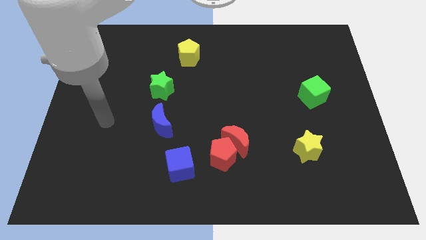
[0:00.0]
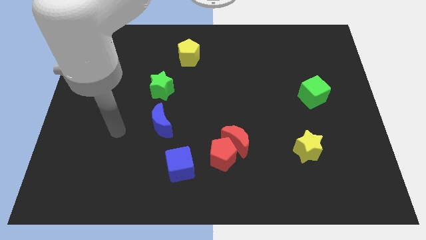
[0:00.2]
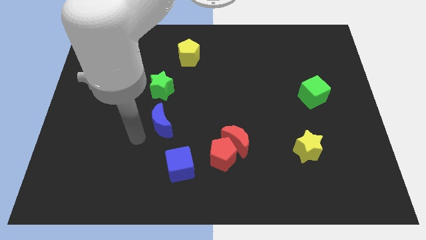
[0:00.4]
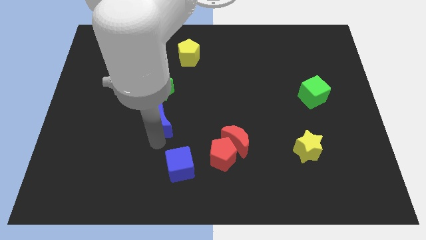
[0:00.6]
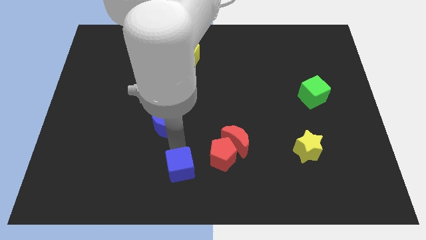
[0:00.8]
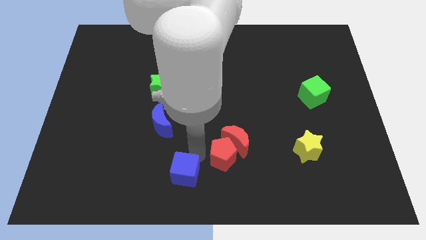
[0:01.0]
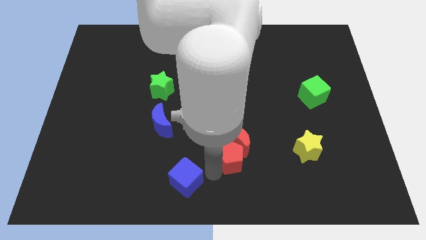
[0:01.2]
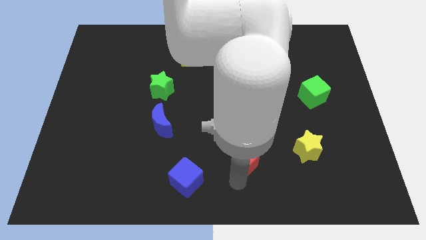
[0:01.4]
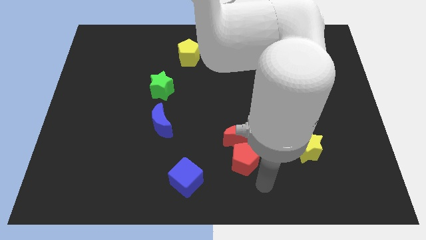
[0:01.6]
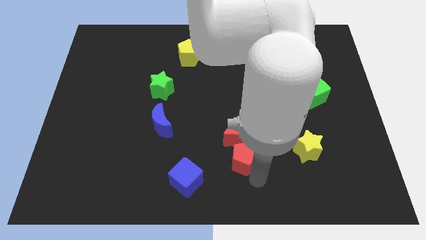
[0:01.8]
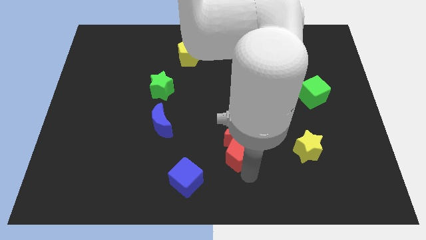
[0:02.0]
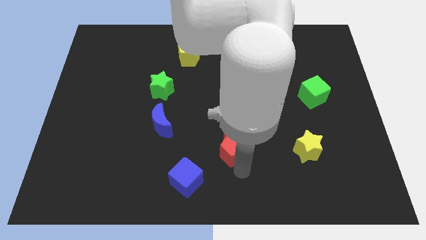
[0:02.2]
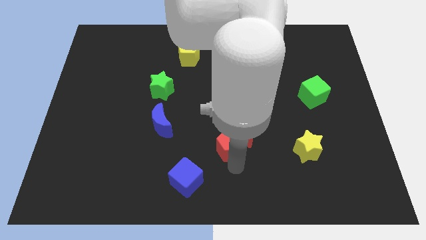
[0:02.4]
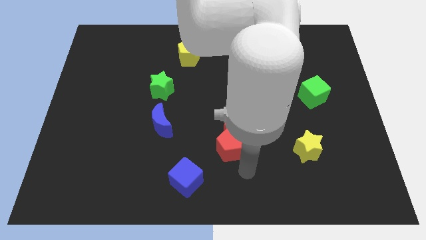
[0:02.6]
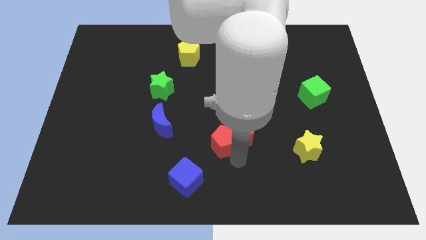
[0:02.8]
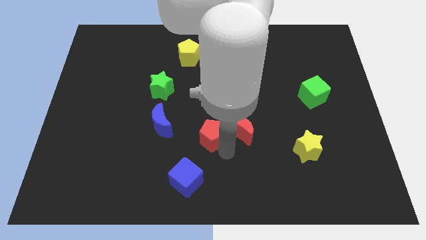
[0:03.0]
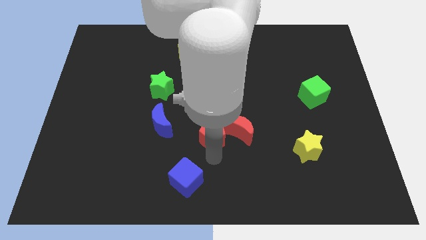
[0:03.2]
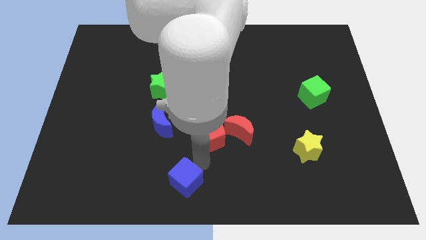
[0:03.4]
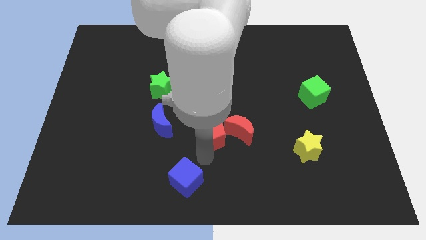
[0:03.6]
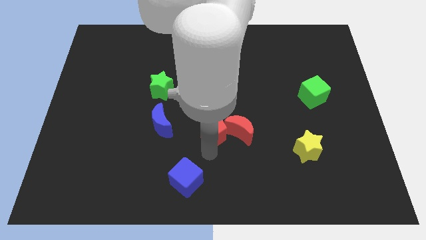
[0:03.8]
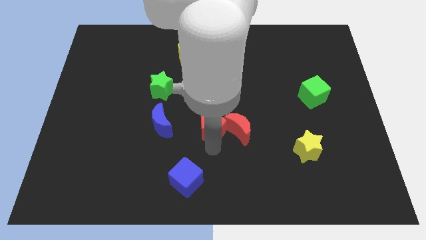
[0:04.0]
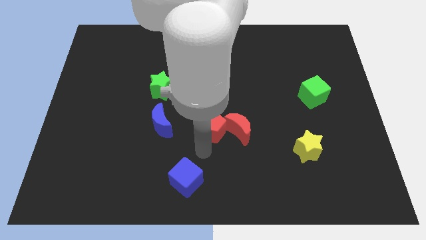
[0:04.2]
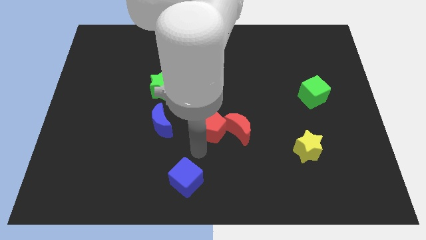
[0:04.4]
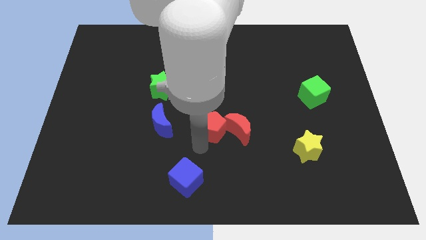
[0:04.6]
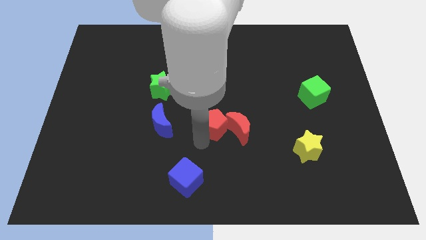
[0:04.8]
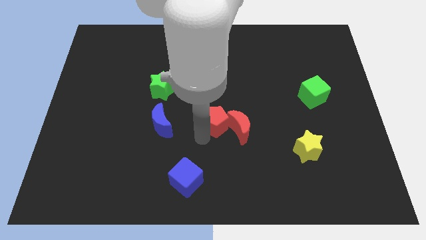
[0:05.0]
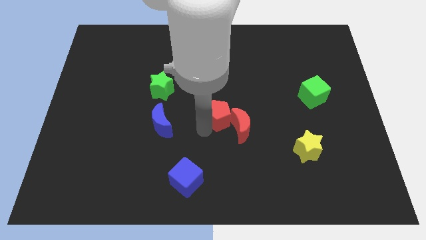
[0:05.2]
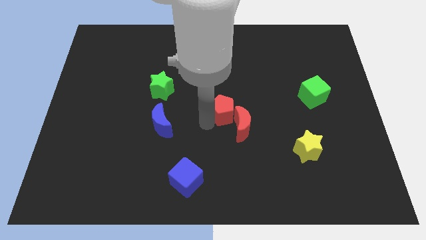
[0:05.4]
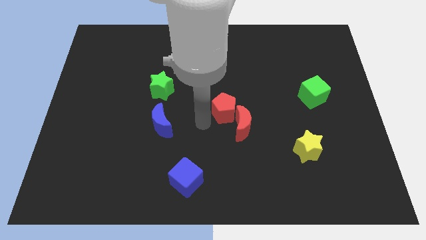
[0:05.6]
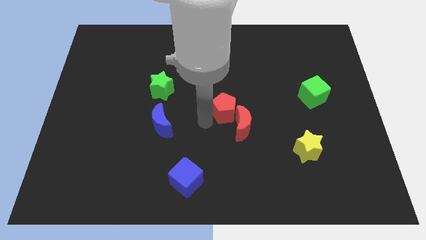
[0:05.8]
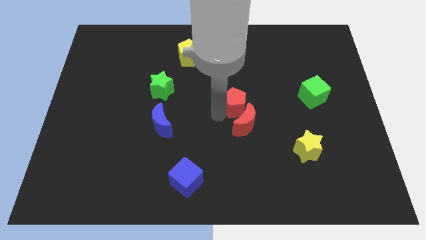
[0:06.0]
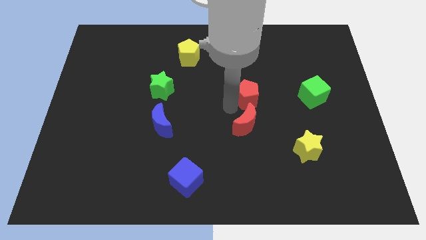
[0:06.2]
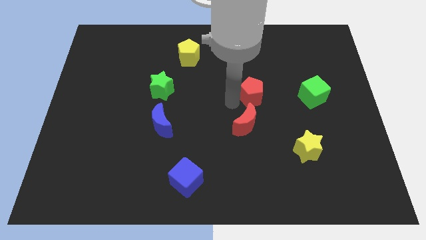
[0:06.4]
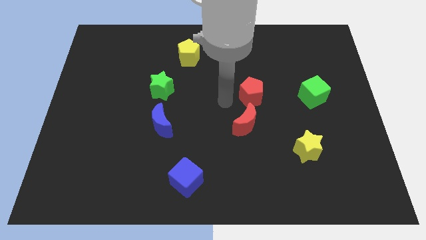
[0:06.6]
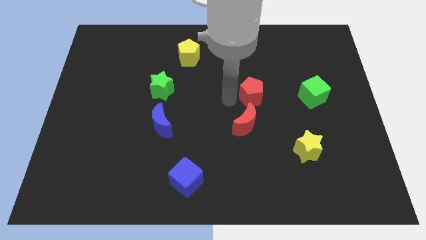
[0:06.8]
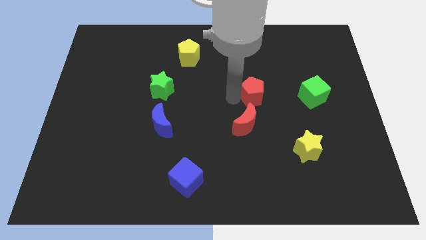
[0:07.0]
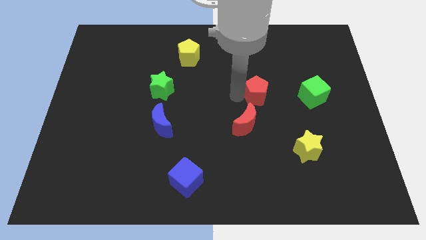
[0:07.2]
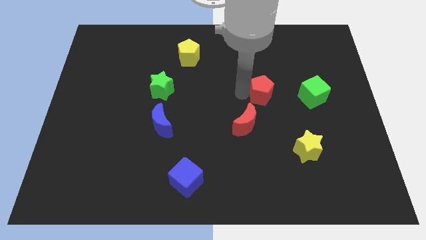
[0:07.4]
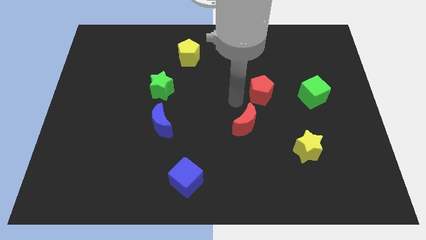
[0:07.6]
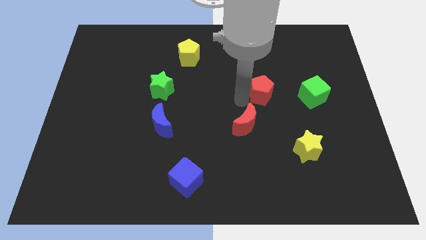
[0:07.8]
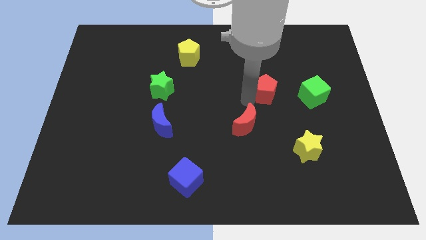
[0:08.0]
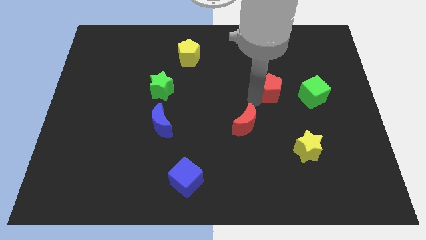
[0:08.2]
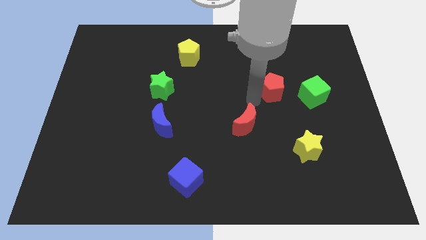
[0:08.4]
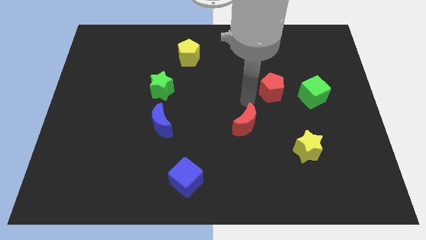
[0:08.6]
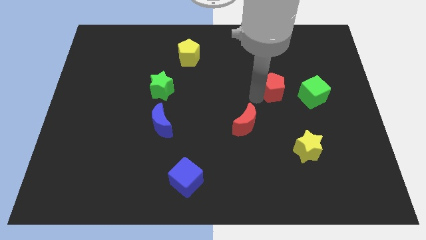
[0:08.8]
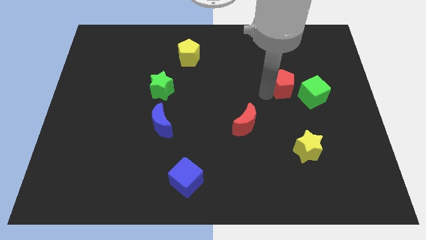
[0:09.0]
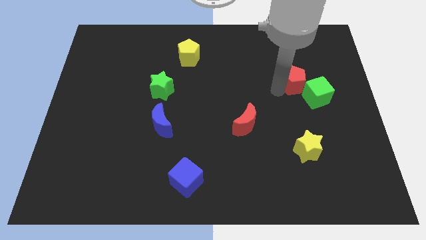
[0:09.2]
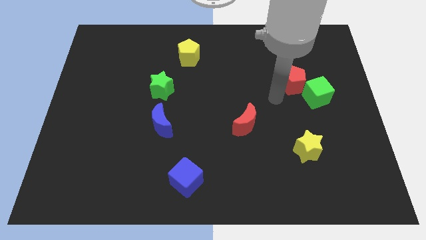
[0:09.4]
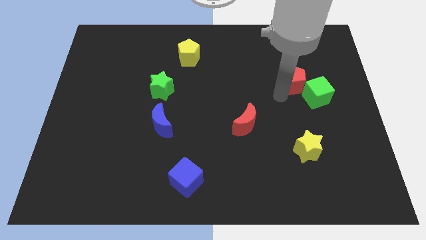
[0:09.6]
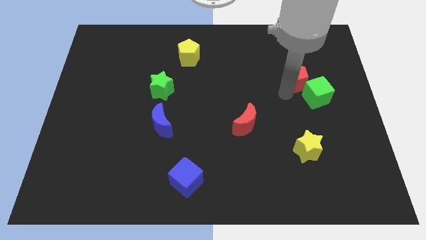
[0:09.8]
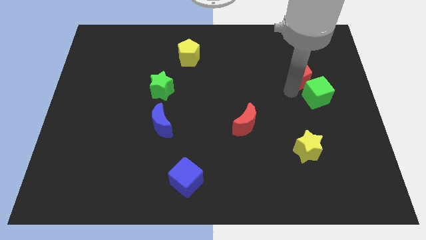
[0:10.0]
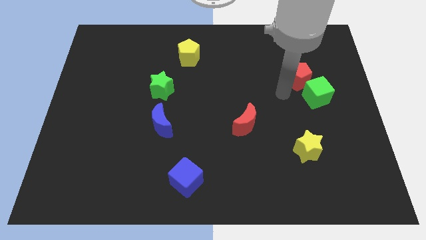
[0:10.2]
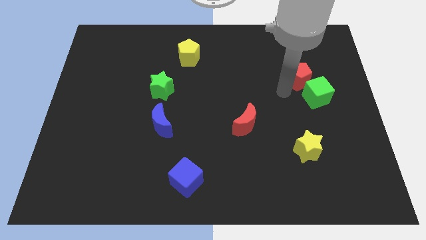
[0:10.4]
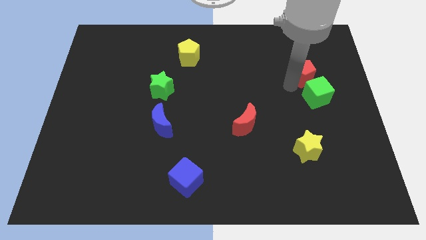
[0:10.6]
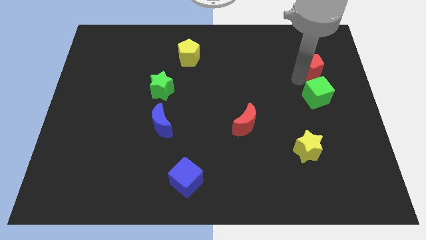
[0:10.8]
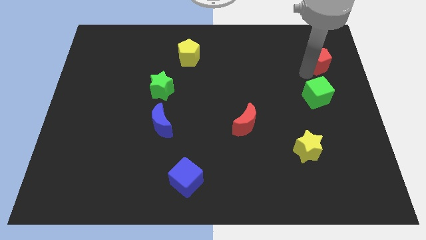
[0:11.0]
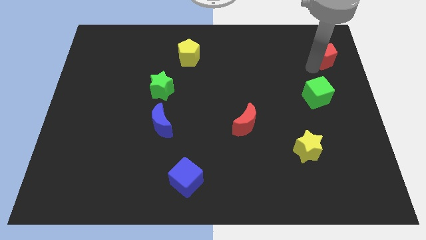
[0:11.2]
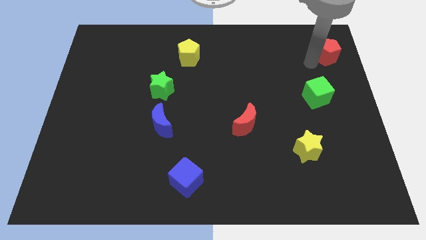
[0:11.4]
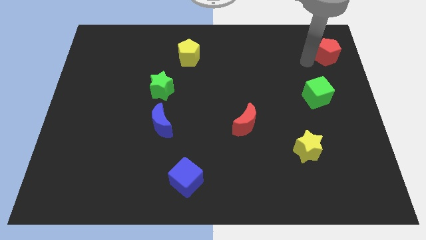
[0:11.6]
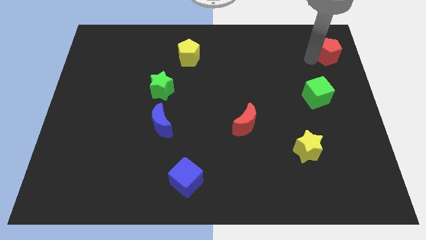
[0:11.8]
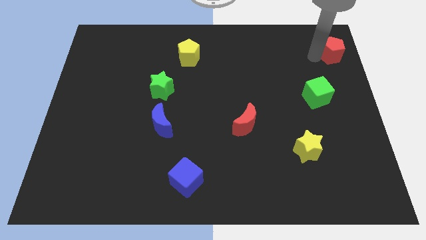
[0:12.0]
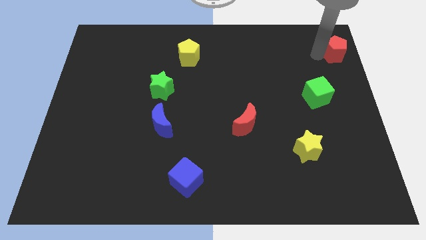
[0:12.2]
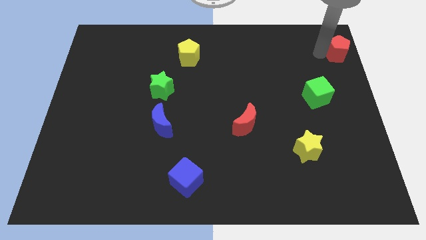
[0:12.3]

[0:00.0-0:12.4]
slide the red pentagon to the top right corner
